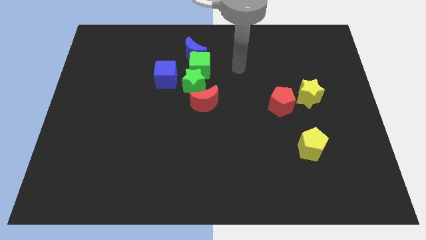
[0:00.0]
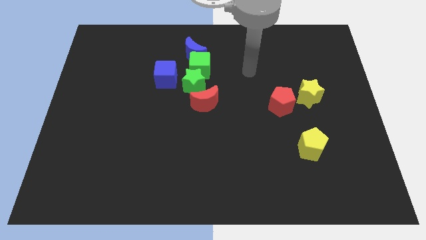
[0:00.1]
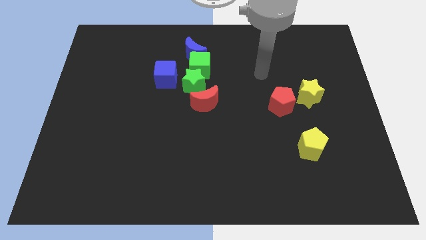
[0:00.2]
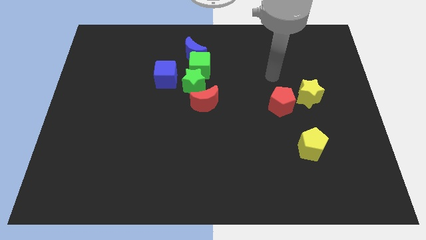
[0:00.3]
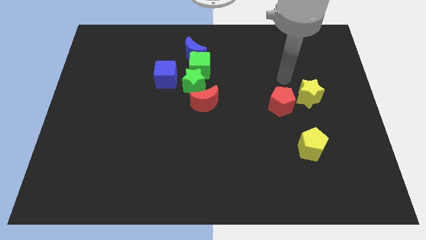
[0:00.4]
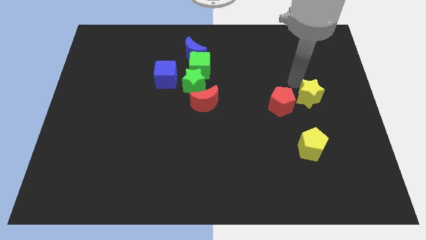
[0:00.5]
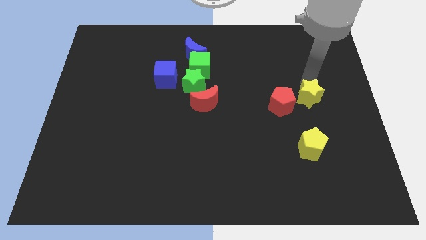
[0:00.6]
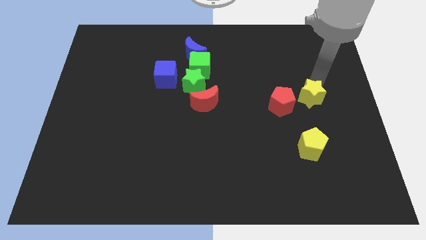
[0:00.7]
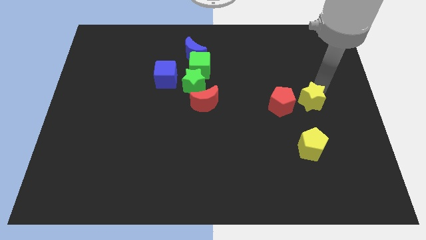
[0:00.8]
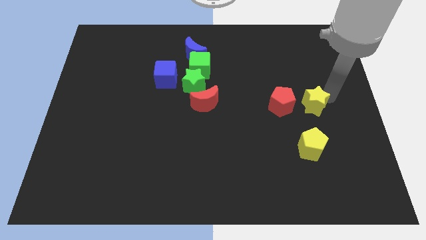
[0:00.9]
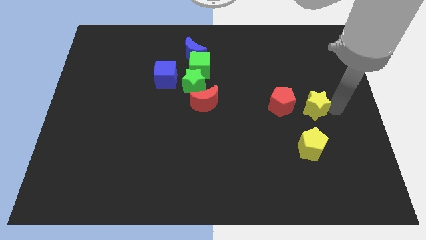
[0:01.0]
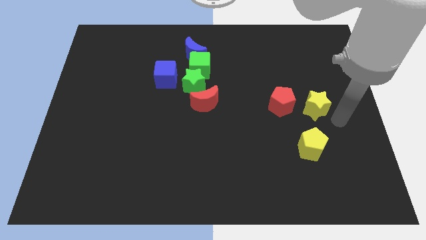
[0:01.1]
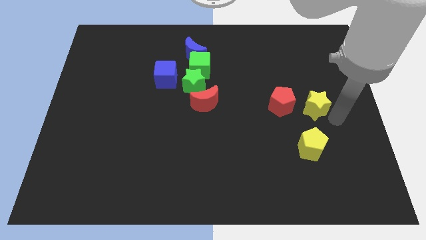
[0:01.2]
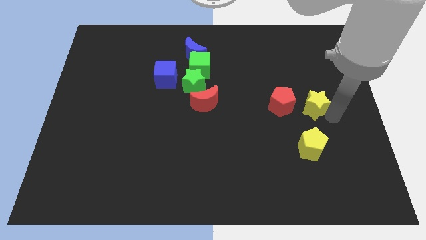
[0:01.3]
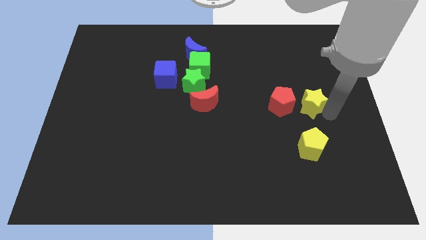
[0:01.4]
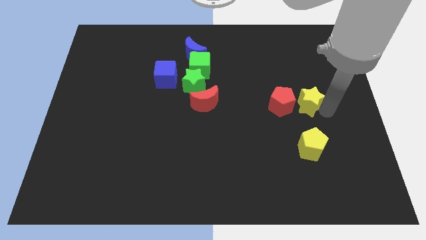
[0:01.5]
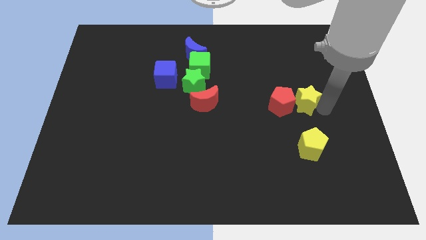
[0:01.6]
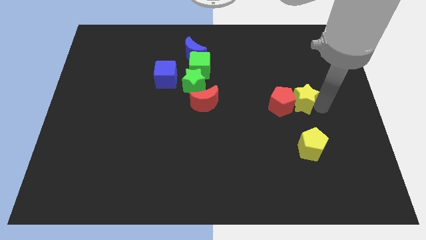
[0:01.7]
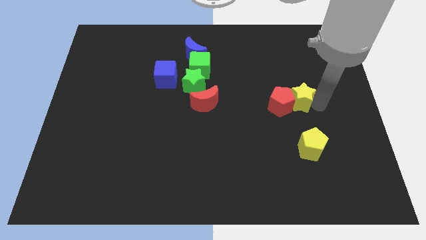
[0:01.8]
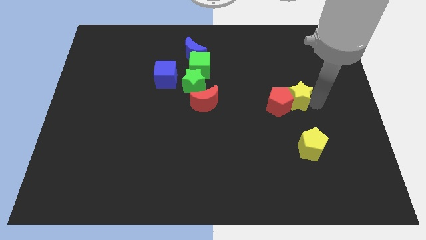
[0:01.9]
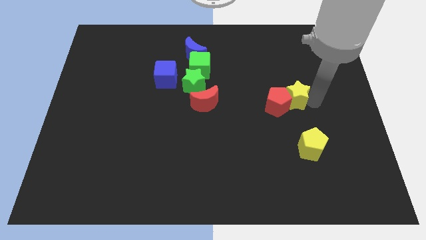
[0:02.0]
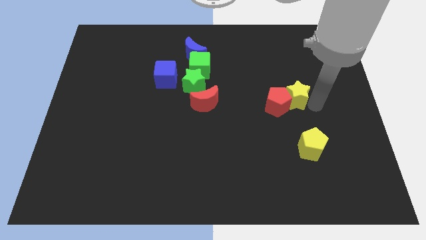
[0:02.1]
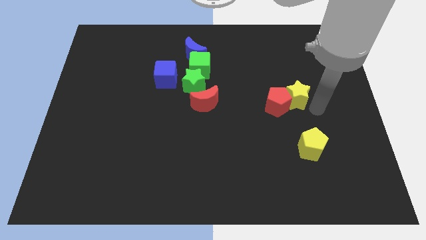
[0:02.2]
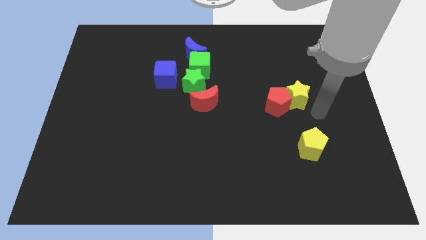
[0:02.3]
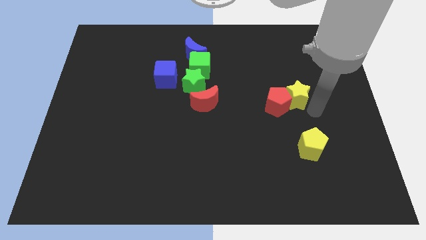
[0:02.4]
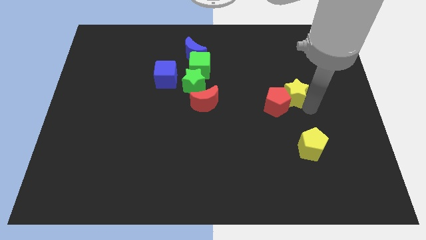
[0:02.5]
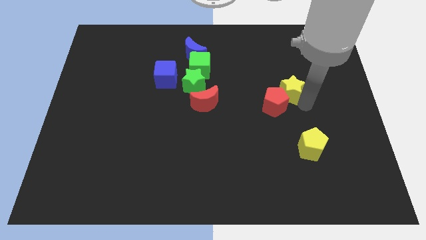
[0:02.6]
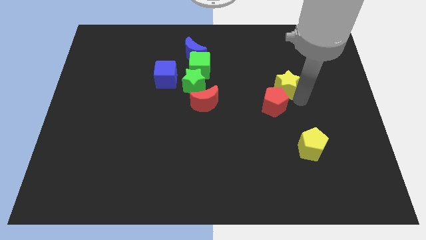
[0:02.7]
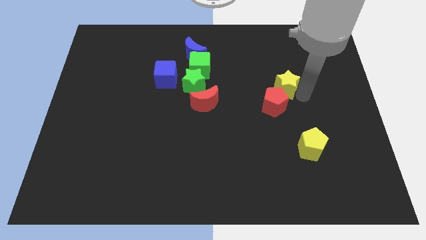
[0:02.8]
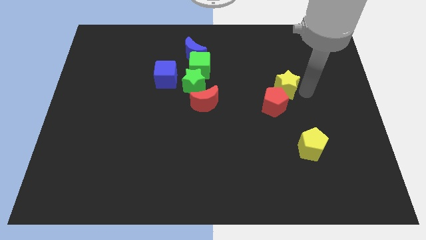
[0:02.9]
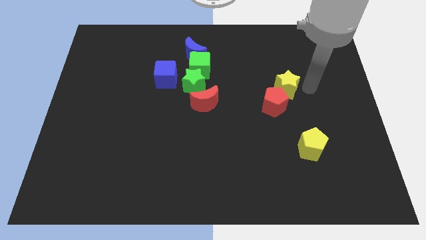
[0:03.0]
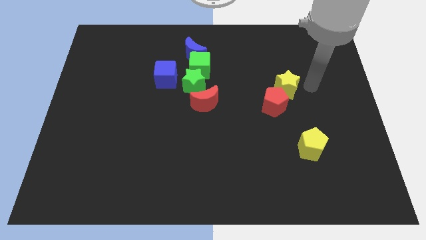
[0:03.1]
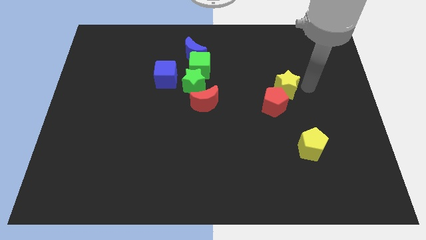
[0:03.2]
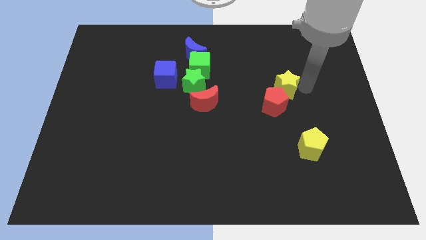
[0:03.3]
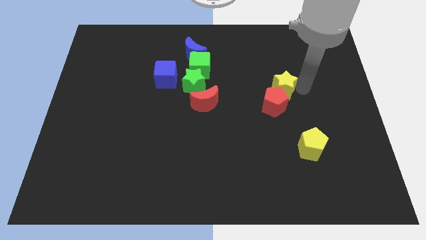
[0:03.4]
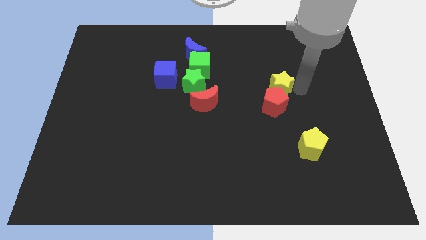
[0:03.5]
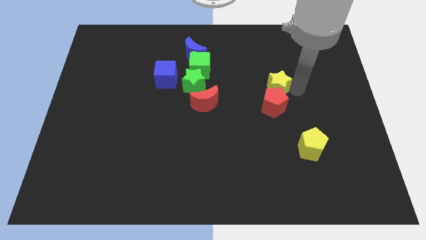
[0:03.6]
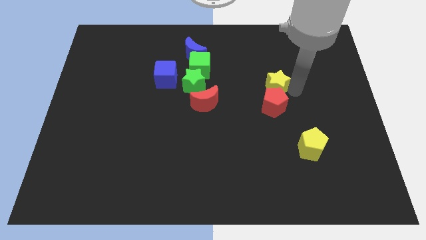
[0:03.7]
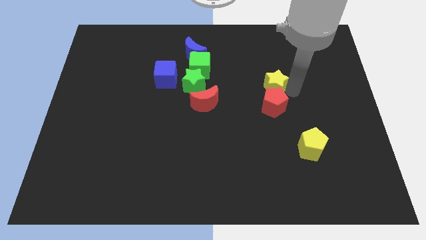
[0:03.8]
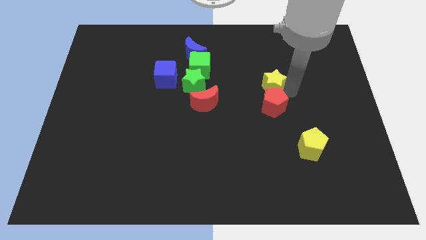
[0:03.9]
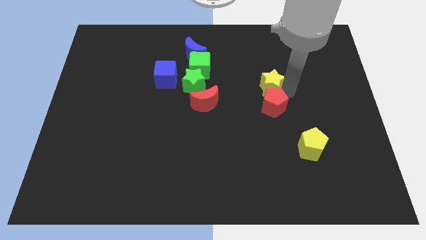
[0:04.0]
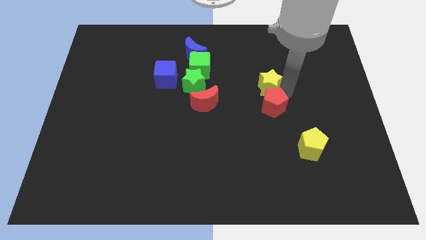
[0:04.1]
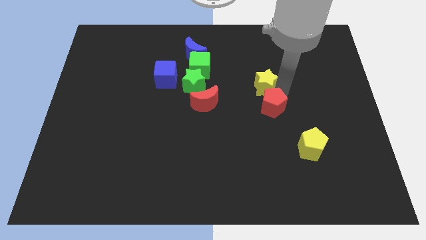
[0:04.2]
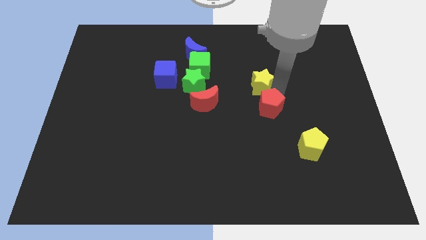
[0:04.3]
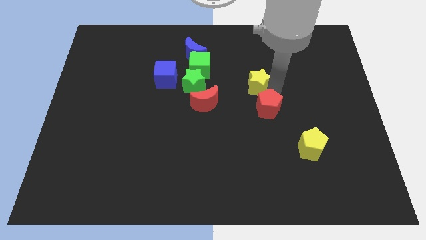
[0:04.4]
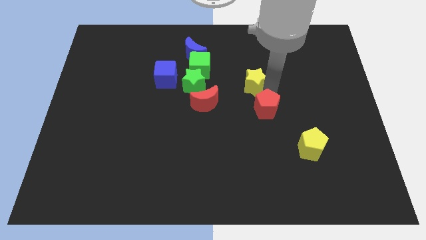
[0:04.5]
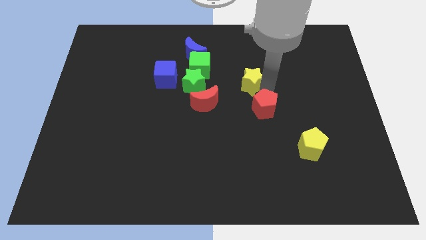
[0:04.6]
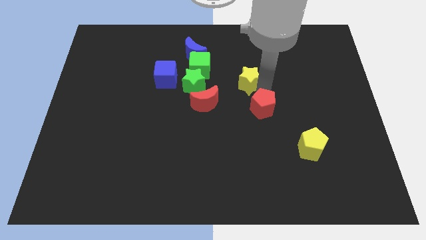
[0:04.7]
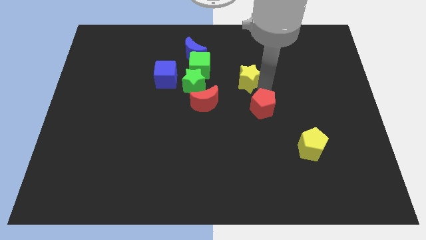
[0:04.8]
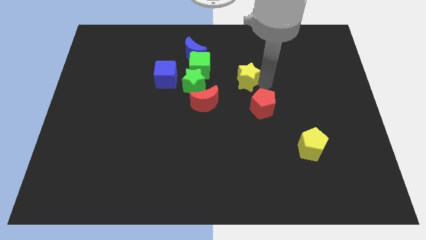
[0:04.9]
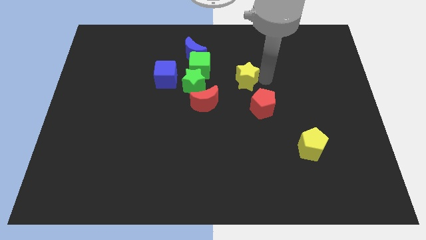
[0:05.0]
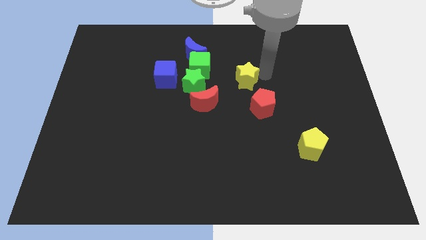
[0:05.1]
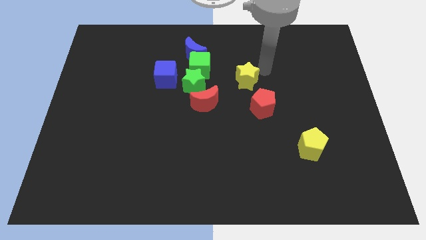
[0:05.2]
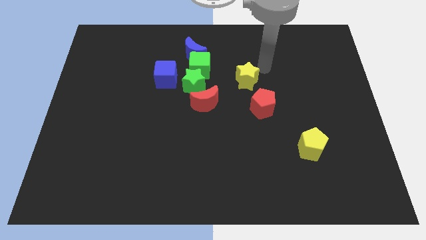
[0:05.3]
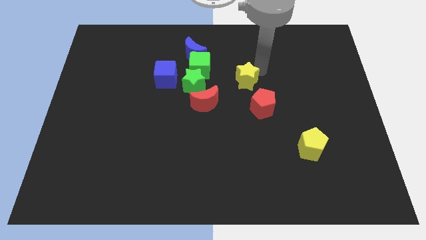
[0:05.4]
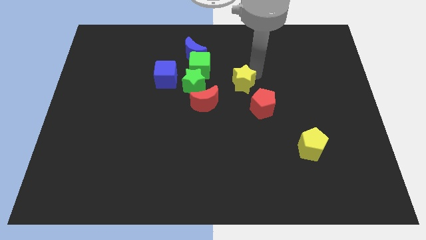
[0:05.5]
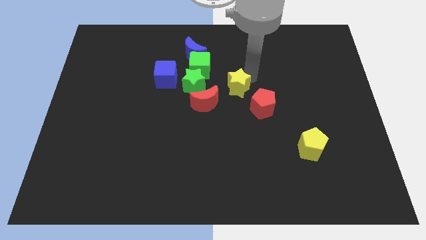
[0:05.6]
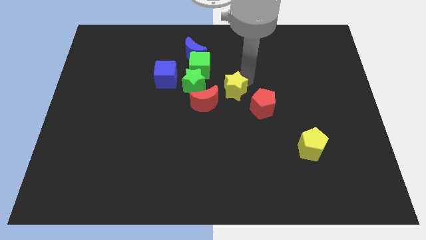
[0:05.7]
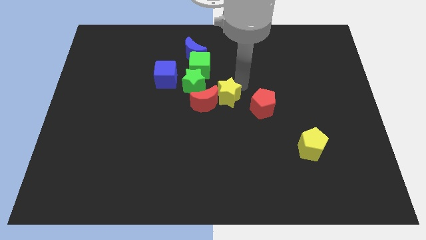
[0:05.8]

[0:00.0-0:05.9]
put the yellow star to the red moon

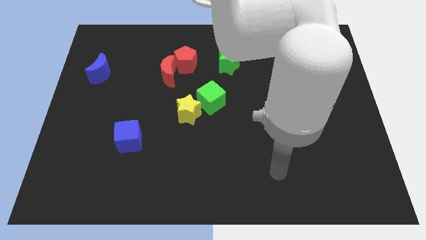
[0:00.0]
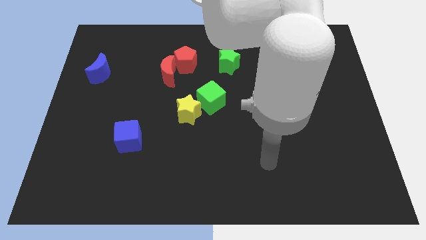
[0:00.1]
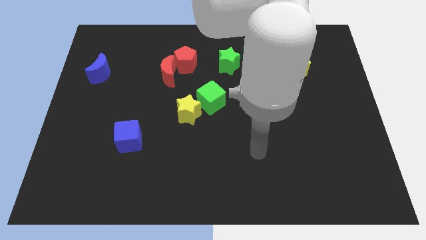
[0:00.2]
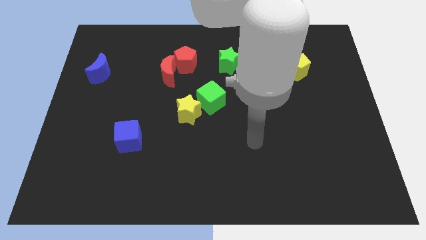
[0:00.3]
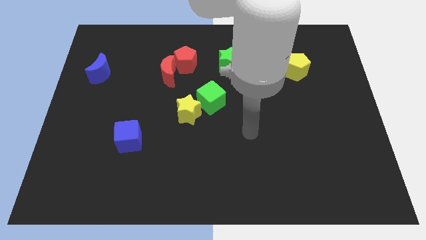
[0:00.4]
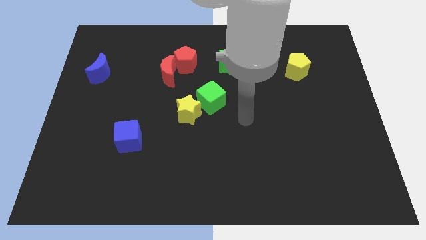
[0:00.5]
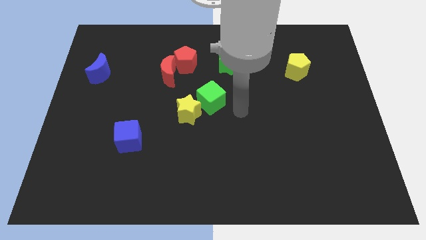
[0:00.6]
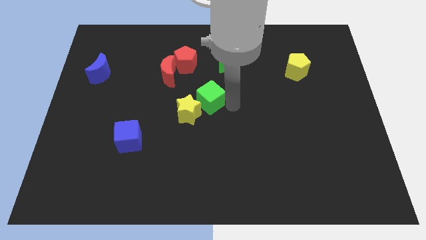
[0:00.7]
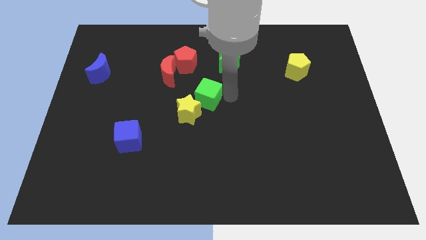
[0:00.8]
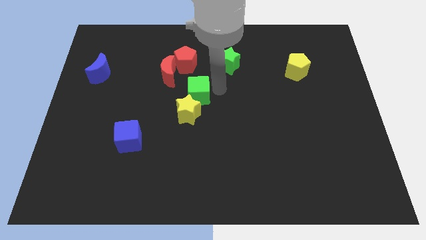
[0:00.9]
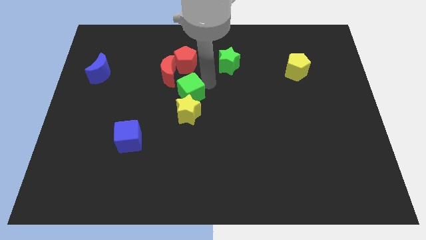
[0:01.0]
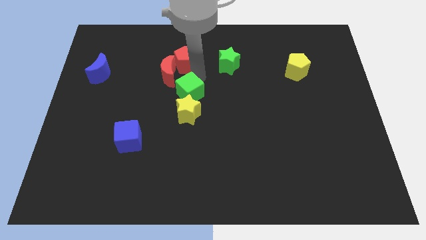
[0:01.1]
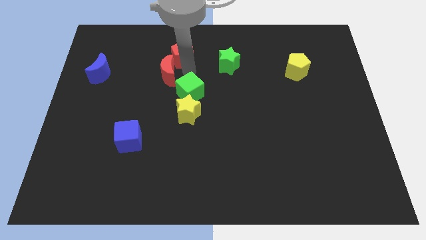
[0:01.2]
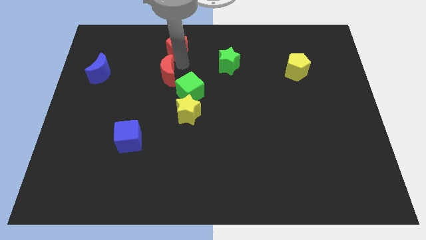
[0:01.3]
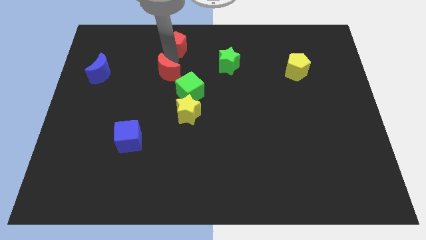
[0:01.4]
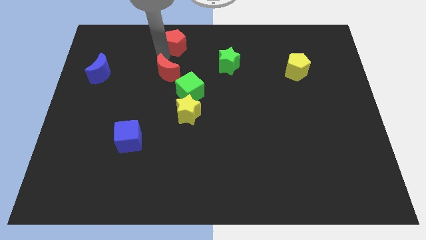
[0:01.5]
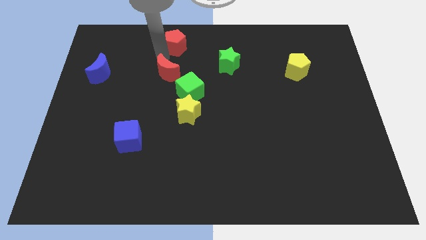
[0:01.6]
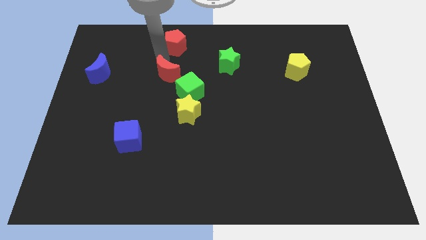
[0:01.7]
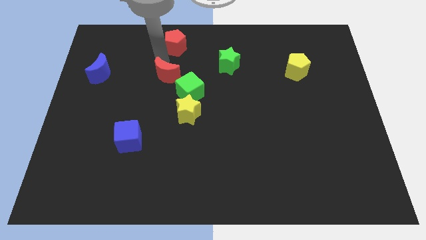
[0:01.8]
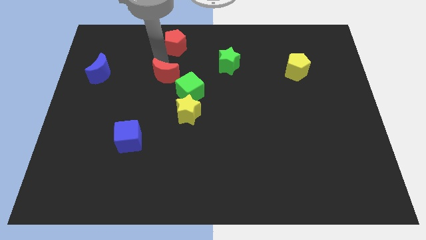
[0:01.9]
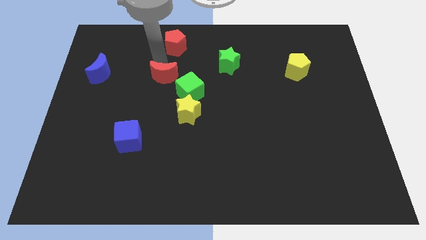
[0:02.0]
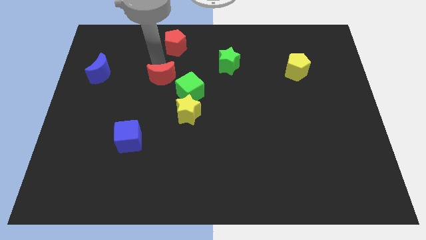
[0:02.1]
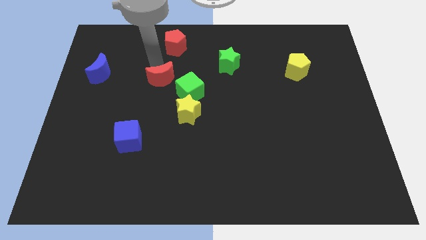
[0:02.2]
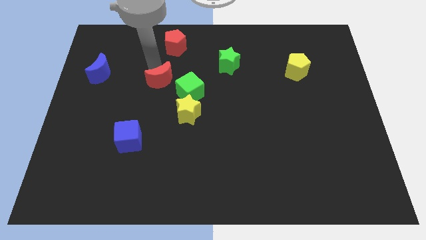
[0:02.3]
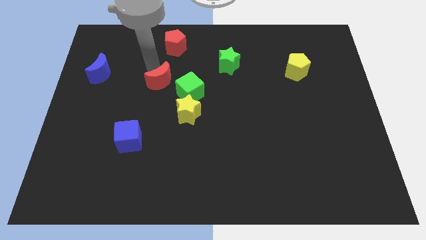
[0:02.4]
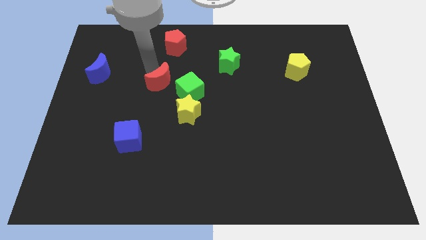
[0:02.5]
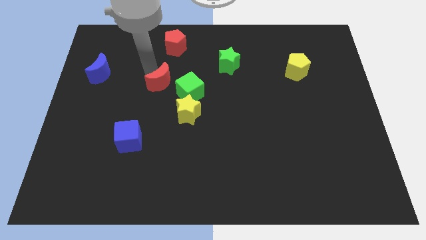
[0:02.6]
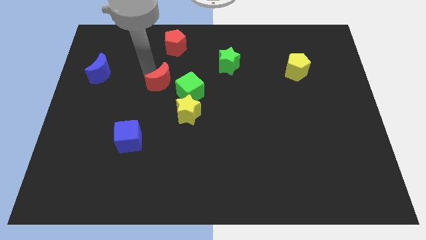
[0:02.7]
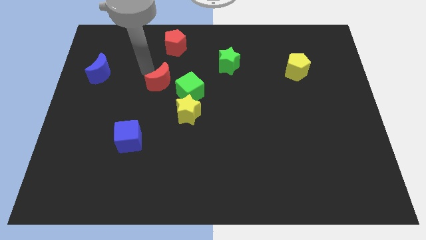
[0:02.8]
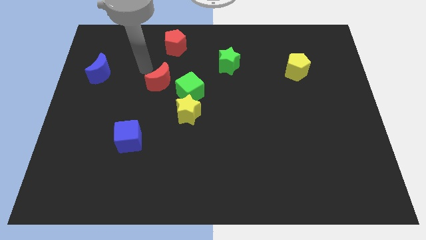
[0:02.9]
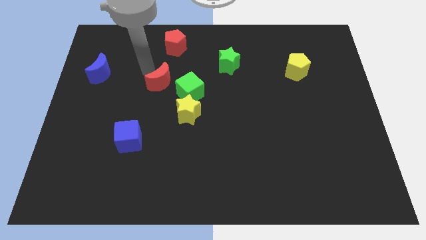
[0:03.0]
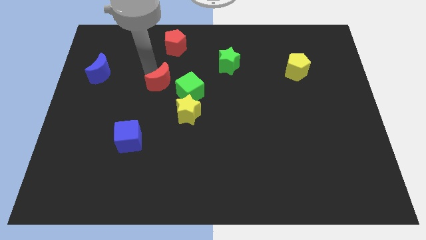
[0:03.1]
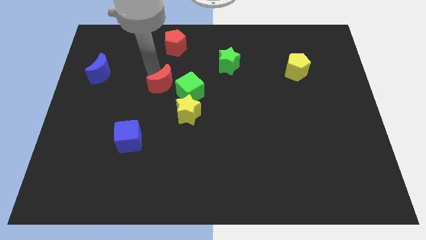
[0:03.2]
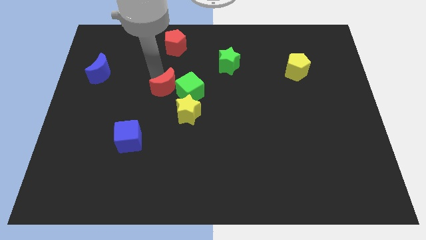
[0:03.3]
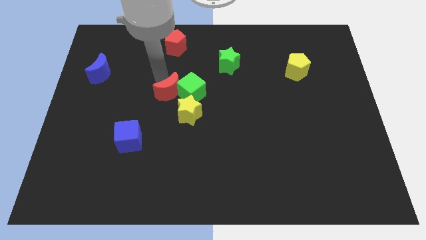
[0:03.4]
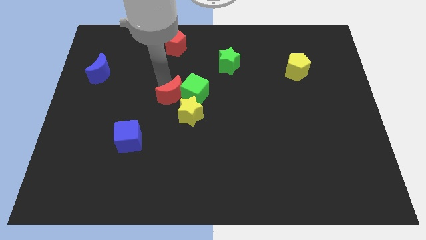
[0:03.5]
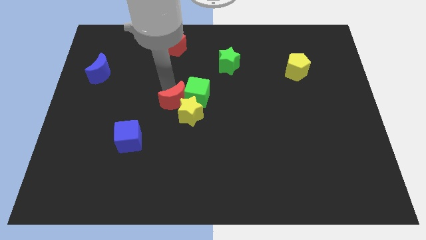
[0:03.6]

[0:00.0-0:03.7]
move the red moon towards the yellow star
